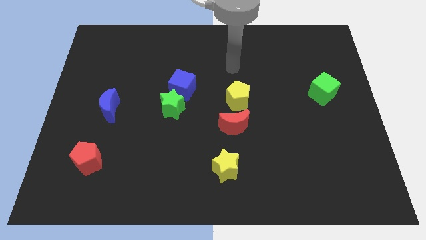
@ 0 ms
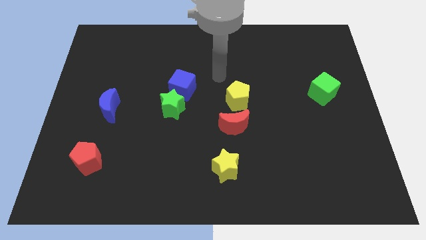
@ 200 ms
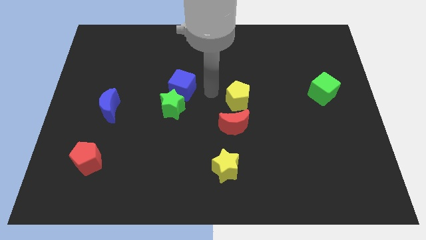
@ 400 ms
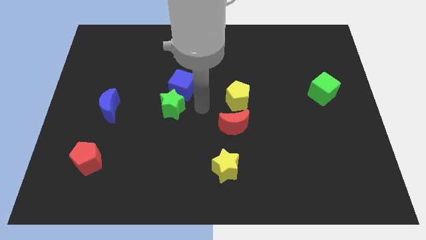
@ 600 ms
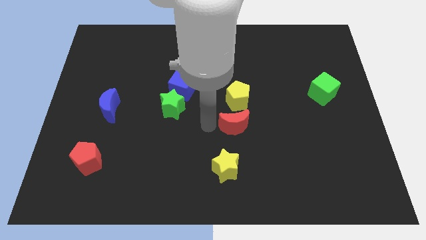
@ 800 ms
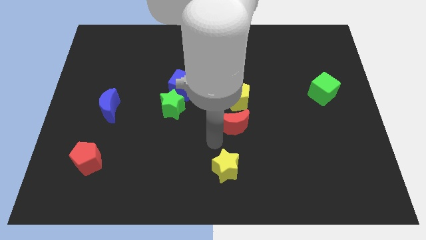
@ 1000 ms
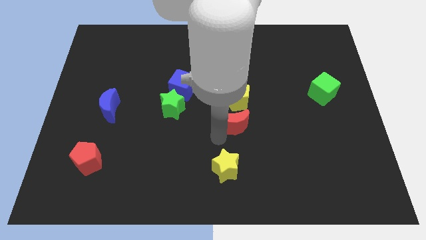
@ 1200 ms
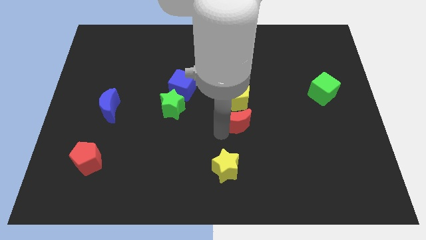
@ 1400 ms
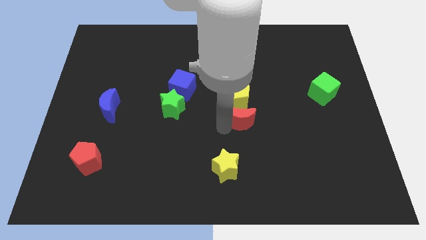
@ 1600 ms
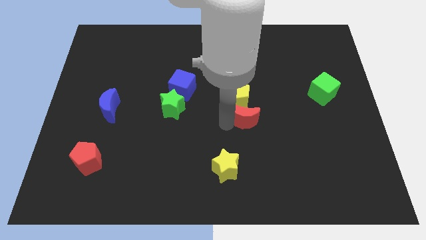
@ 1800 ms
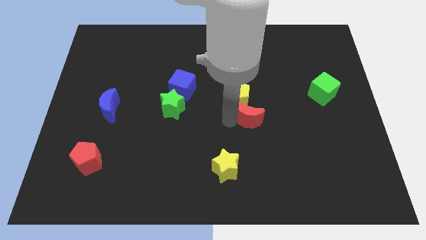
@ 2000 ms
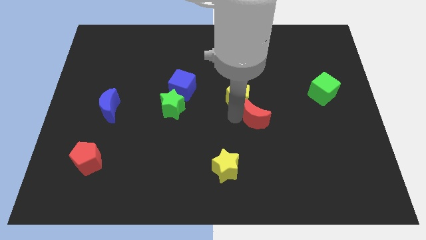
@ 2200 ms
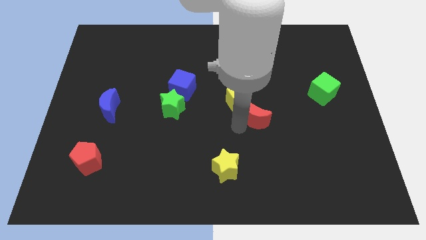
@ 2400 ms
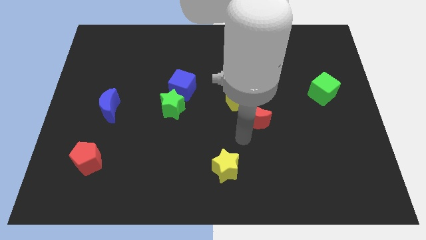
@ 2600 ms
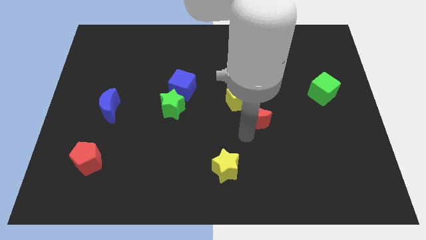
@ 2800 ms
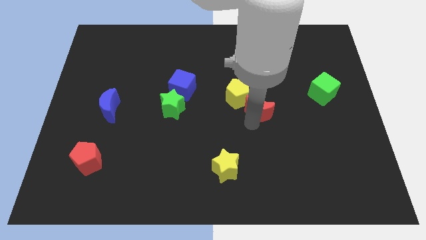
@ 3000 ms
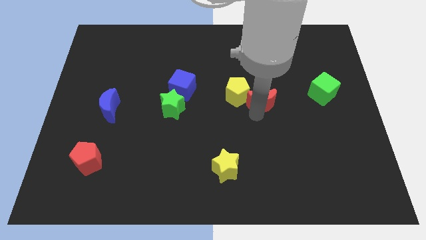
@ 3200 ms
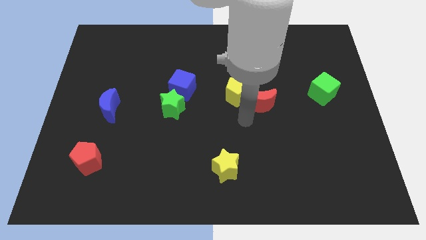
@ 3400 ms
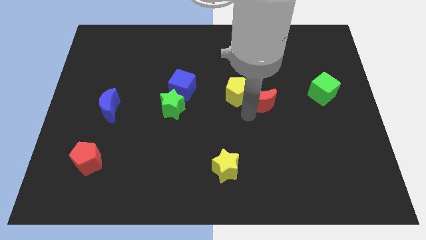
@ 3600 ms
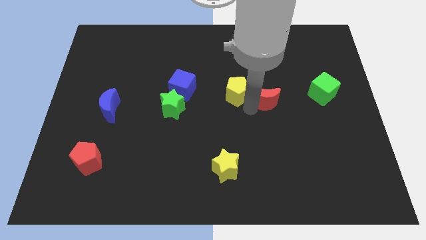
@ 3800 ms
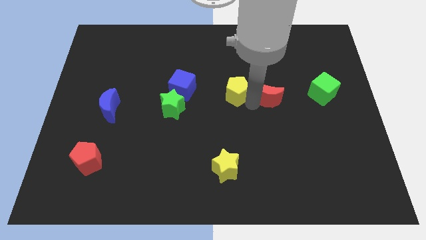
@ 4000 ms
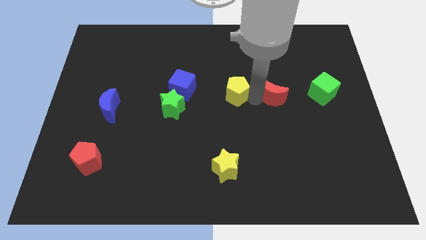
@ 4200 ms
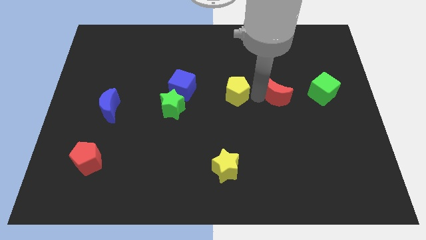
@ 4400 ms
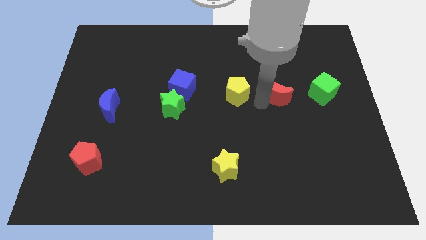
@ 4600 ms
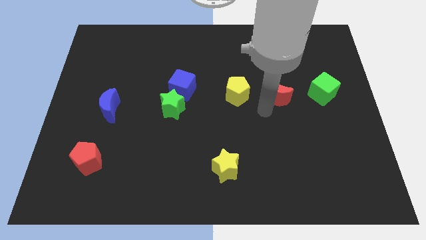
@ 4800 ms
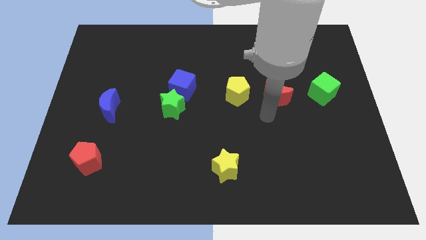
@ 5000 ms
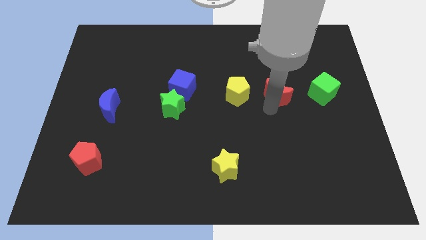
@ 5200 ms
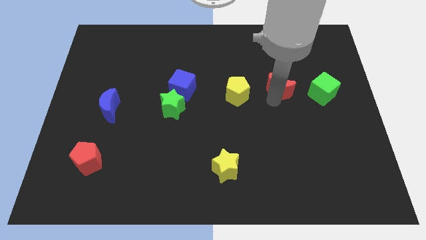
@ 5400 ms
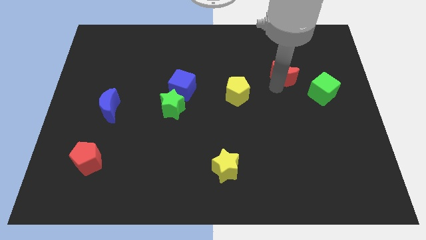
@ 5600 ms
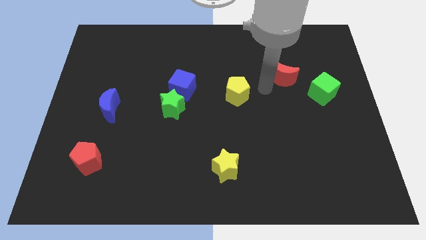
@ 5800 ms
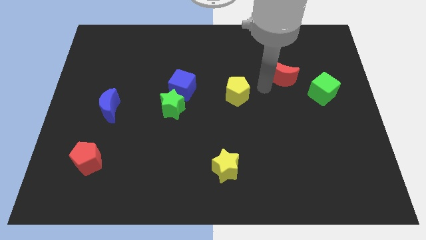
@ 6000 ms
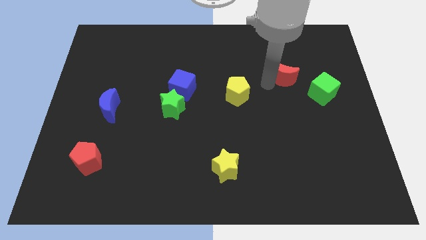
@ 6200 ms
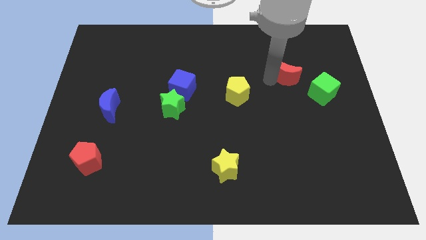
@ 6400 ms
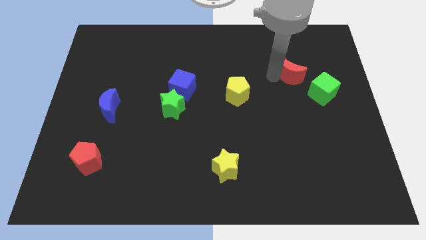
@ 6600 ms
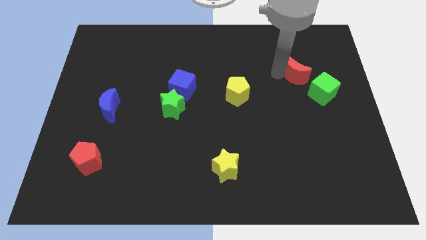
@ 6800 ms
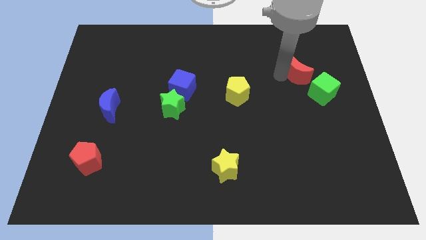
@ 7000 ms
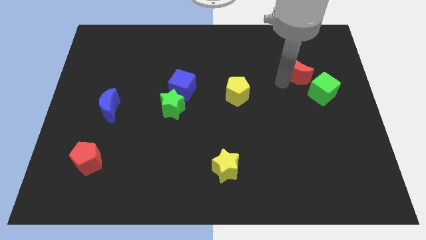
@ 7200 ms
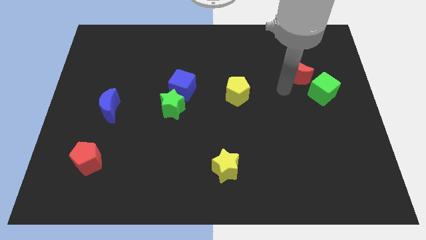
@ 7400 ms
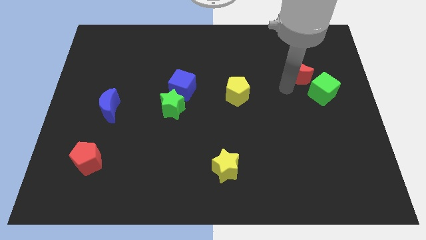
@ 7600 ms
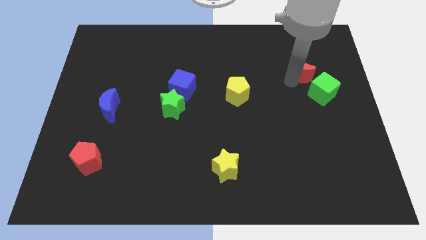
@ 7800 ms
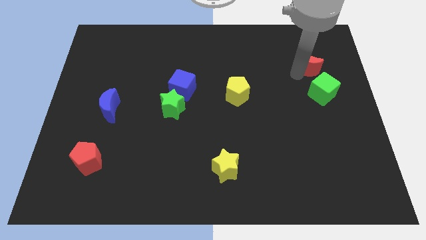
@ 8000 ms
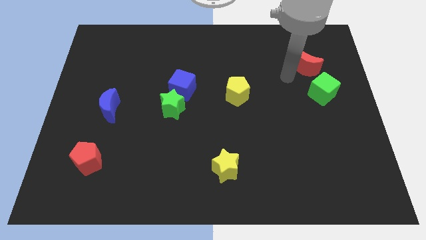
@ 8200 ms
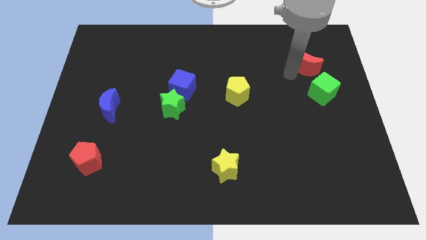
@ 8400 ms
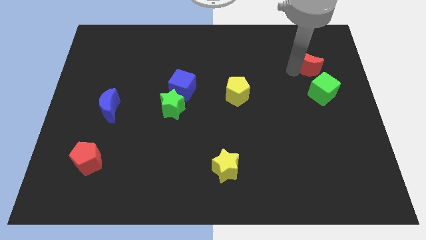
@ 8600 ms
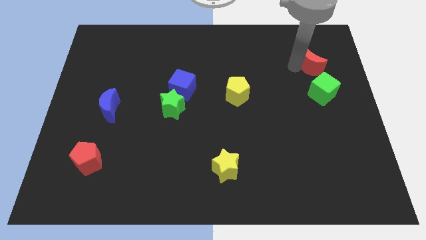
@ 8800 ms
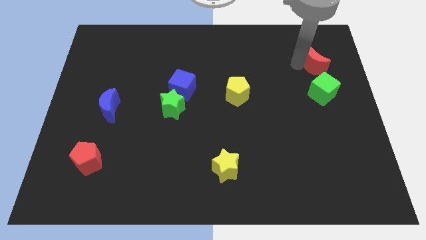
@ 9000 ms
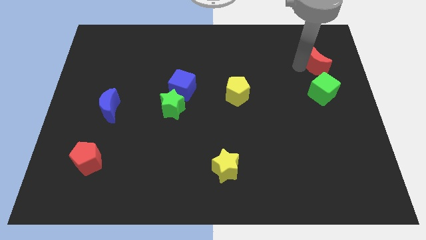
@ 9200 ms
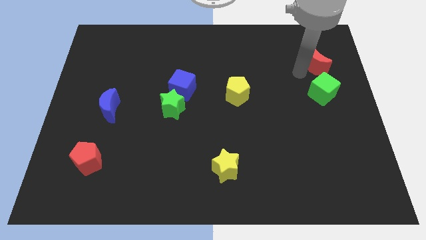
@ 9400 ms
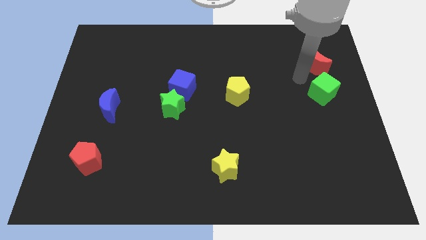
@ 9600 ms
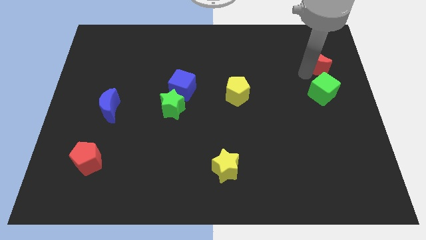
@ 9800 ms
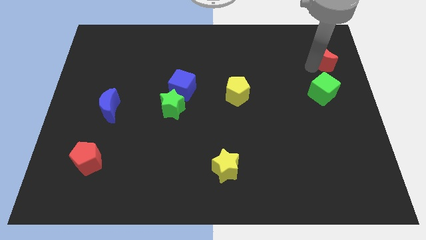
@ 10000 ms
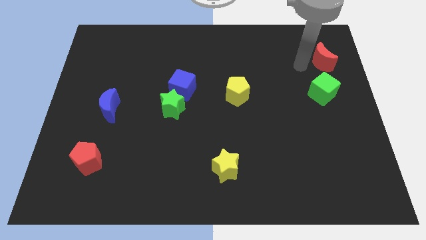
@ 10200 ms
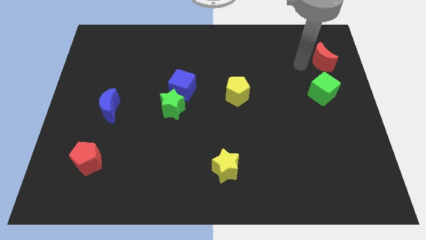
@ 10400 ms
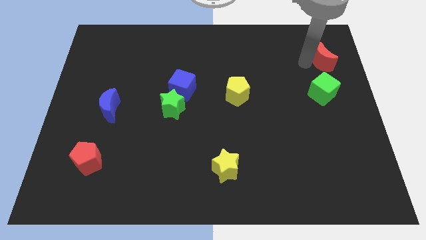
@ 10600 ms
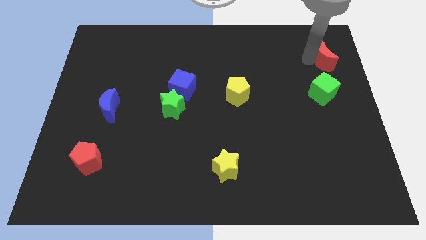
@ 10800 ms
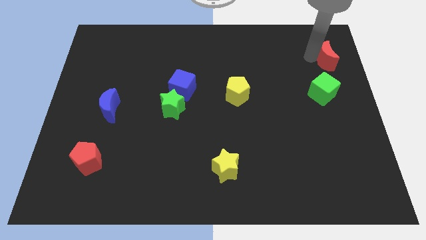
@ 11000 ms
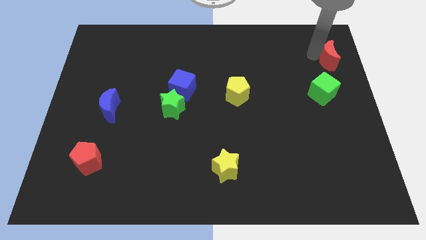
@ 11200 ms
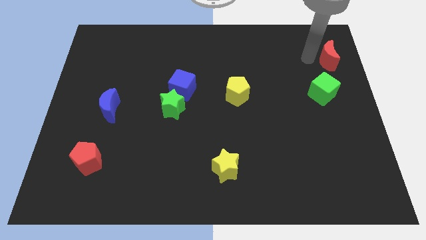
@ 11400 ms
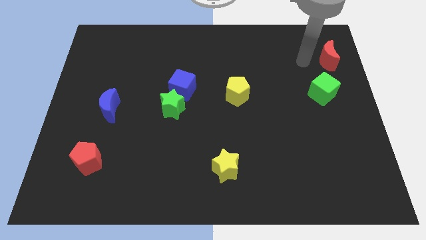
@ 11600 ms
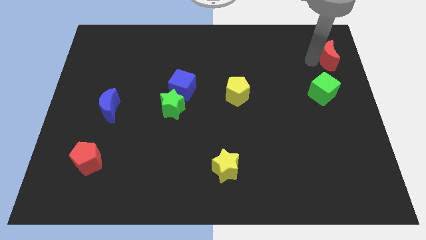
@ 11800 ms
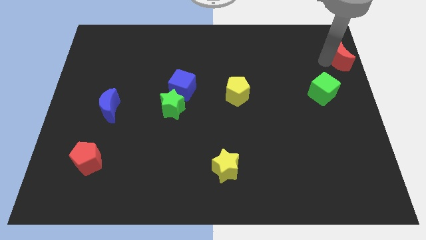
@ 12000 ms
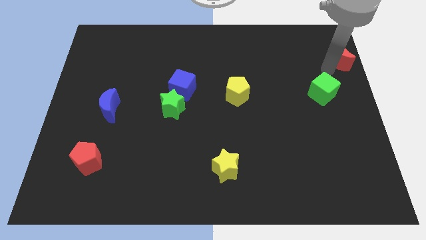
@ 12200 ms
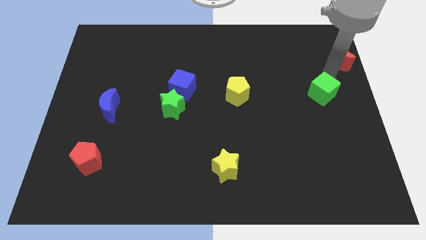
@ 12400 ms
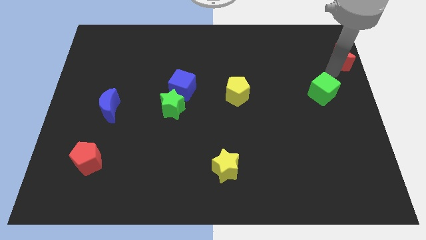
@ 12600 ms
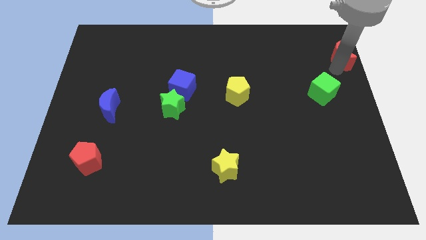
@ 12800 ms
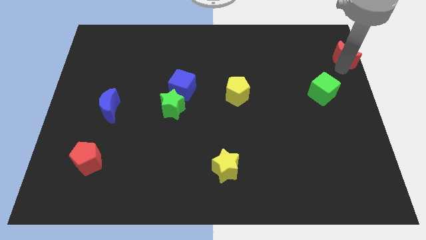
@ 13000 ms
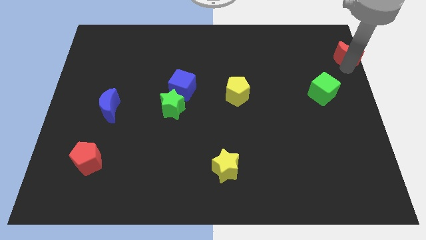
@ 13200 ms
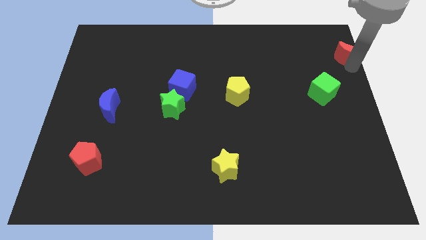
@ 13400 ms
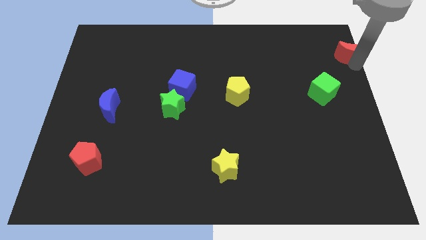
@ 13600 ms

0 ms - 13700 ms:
slide the red moon to the top right
